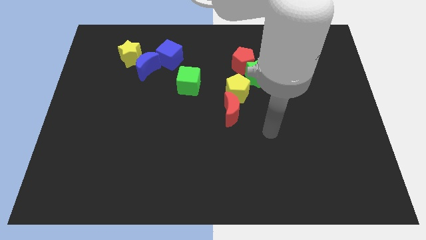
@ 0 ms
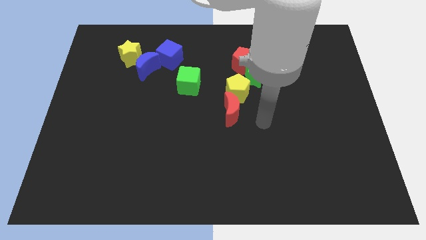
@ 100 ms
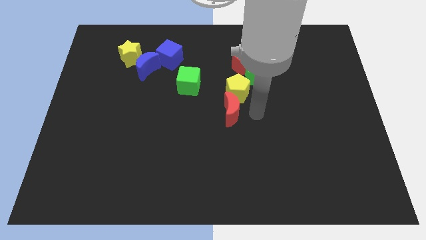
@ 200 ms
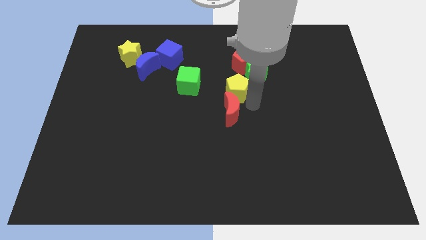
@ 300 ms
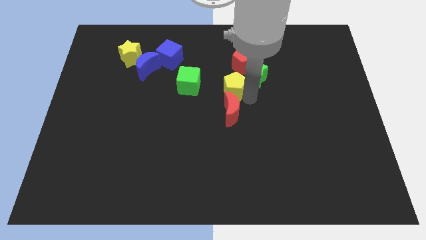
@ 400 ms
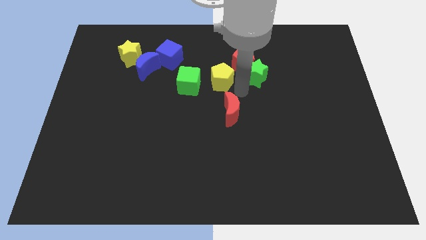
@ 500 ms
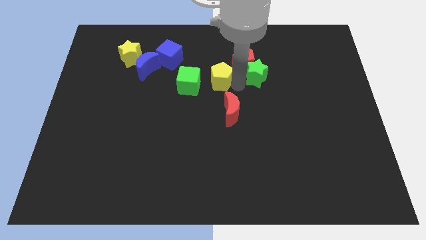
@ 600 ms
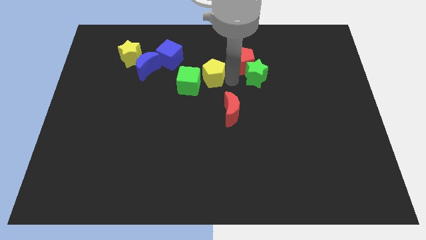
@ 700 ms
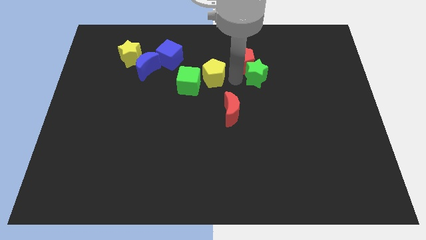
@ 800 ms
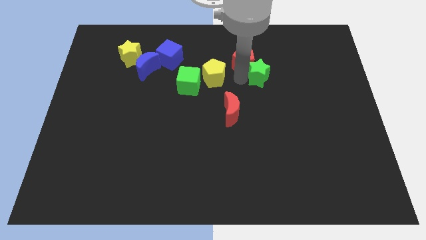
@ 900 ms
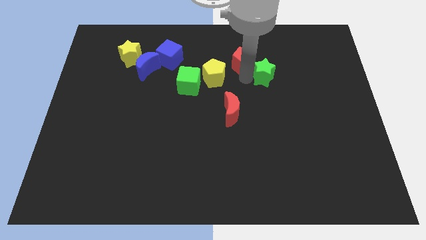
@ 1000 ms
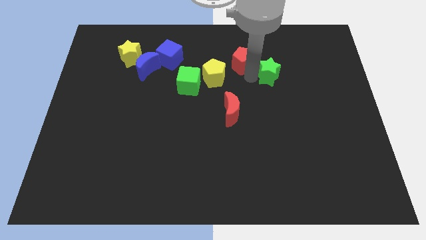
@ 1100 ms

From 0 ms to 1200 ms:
pull the green star apart from the red pentagon and yellow pentagon

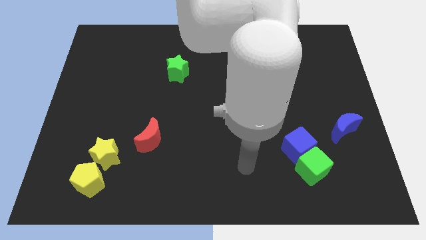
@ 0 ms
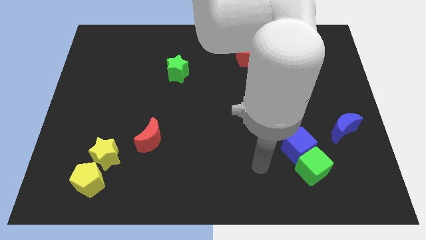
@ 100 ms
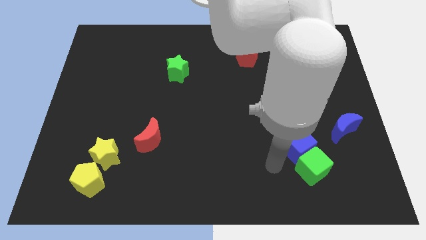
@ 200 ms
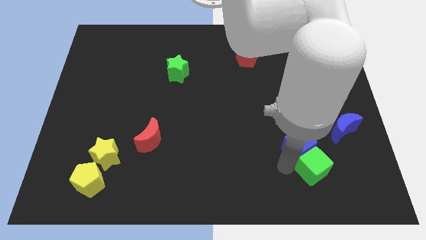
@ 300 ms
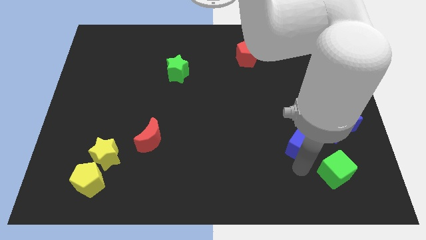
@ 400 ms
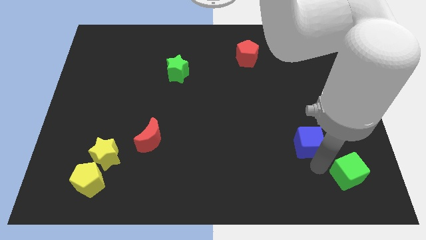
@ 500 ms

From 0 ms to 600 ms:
move the blue cube away from the green cube

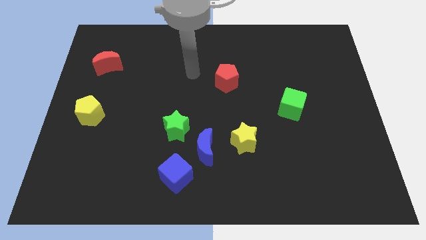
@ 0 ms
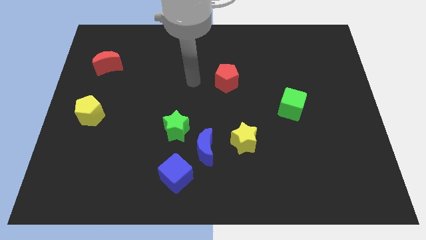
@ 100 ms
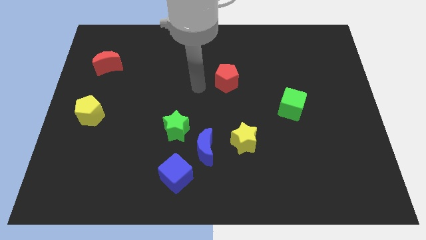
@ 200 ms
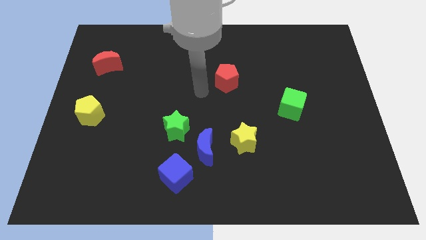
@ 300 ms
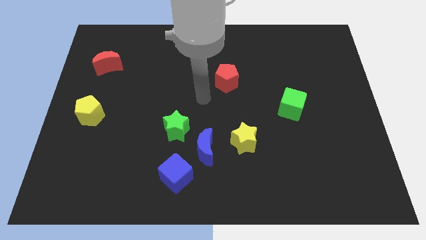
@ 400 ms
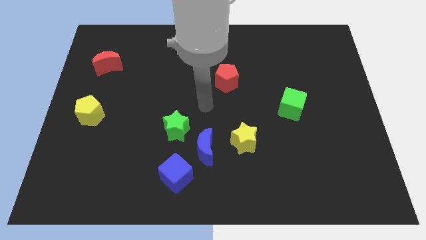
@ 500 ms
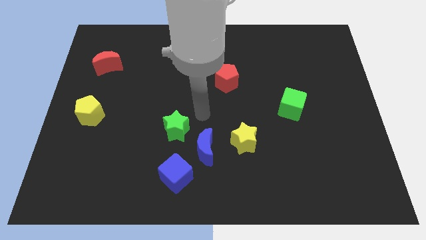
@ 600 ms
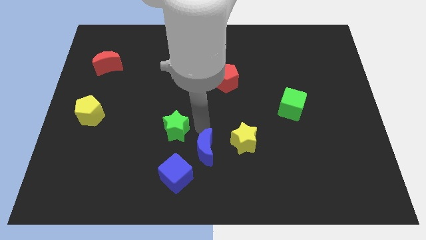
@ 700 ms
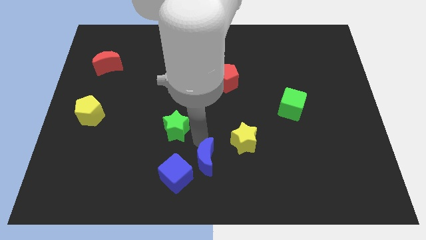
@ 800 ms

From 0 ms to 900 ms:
separate the green star from the blue moon

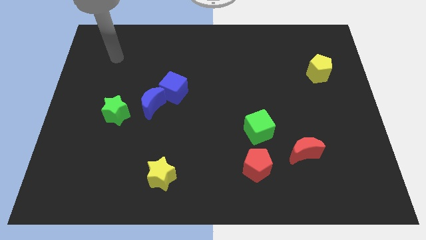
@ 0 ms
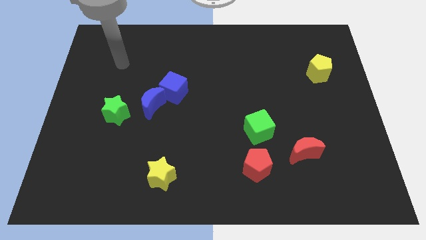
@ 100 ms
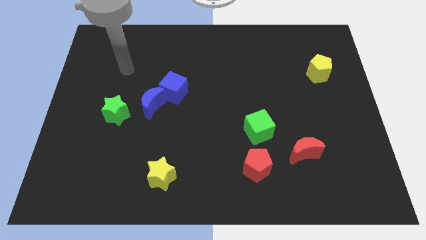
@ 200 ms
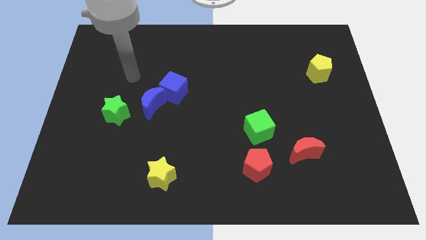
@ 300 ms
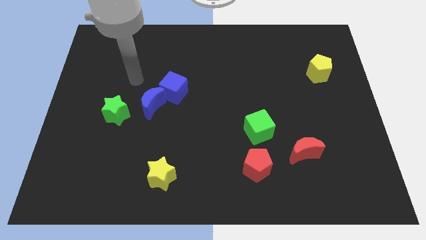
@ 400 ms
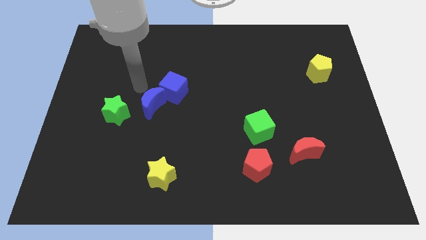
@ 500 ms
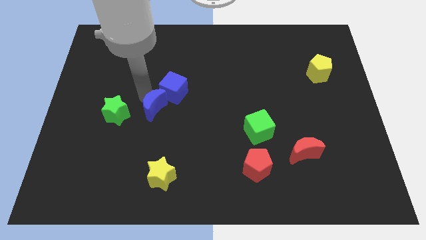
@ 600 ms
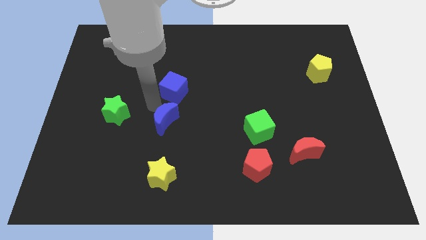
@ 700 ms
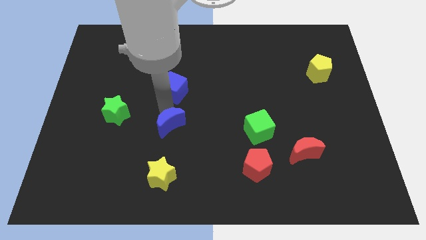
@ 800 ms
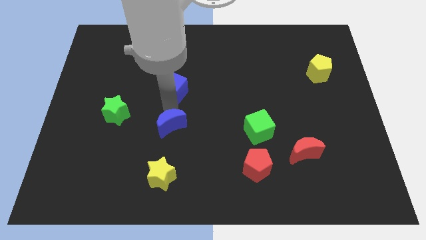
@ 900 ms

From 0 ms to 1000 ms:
move the blue cube away from the blue moon

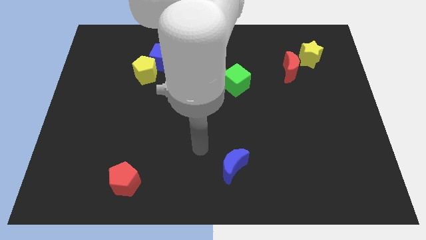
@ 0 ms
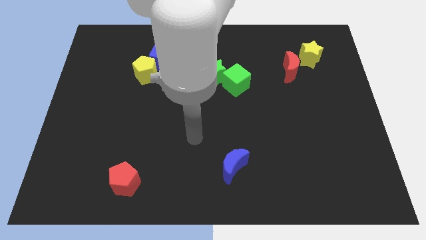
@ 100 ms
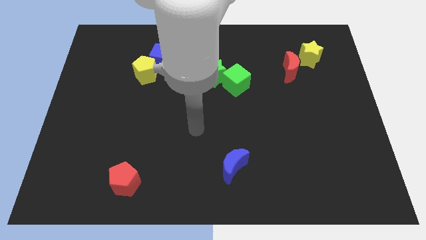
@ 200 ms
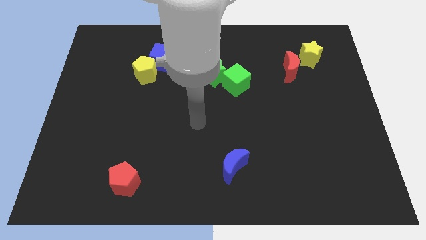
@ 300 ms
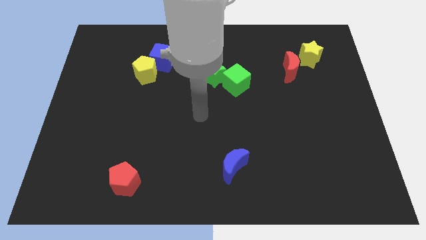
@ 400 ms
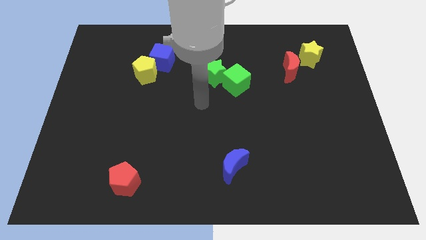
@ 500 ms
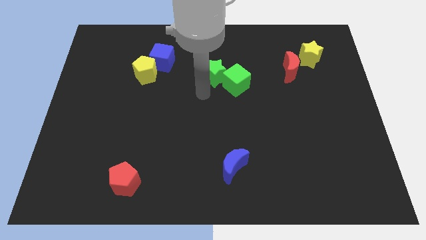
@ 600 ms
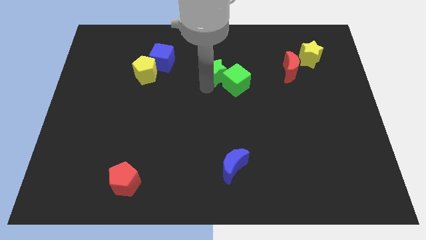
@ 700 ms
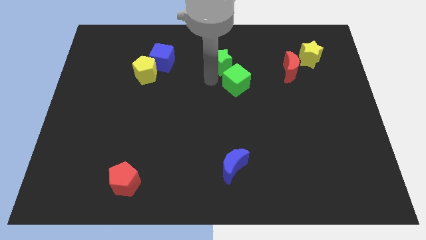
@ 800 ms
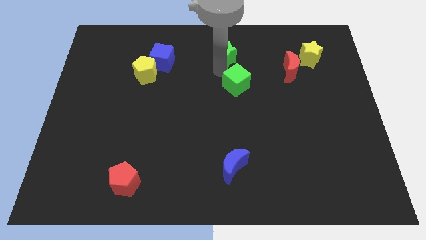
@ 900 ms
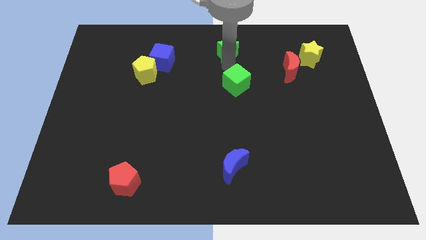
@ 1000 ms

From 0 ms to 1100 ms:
move the green cube away from the green star

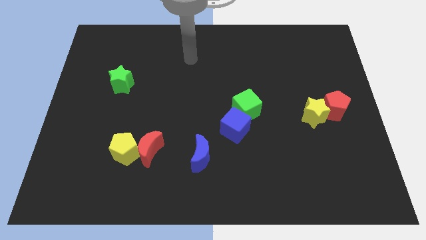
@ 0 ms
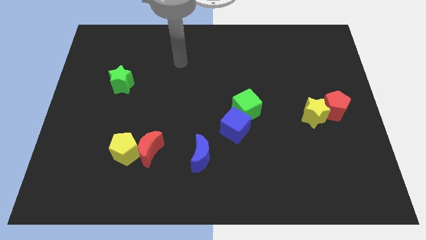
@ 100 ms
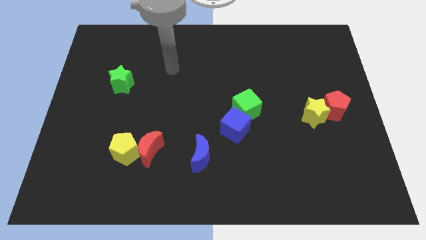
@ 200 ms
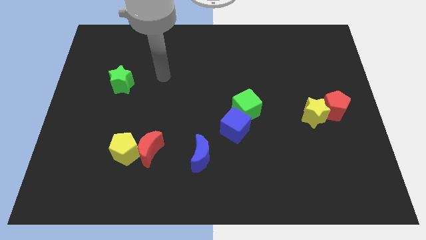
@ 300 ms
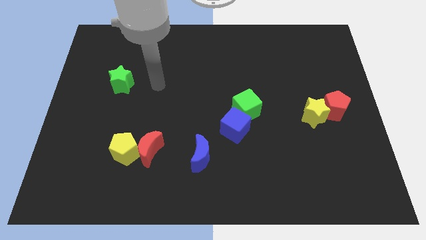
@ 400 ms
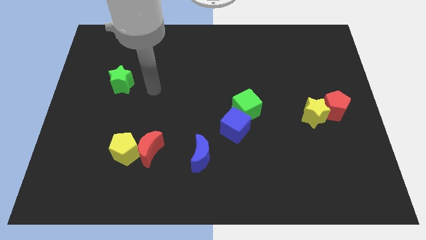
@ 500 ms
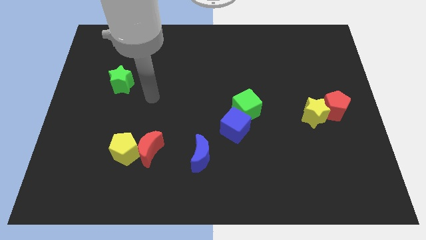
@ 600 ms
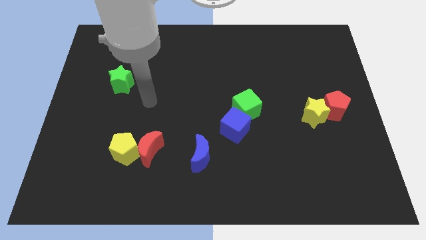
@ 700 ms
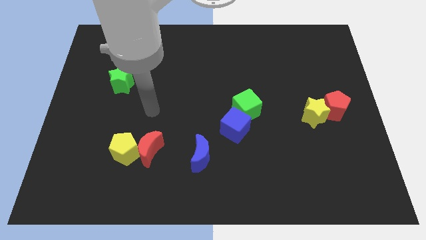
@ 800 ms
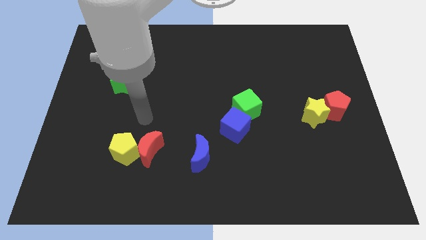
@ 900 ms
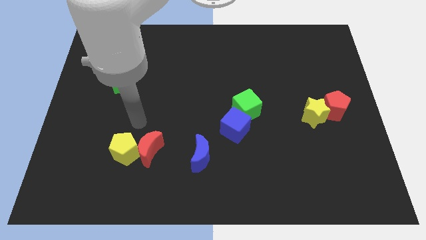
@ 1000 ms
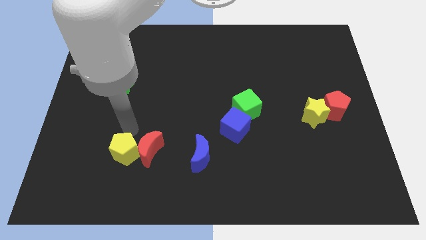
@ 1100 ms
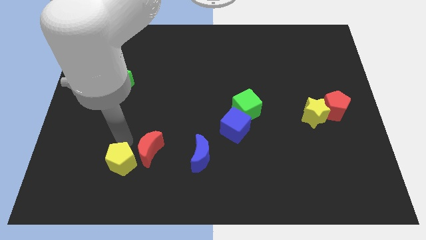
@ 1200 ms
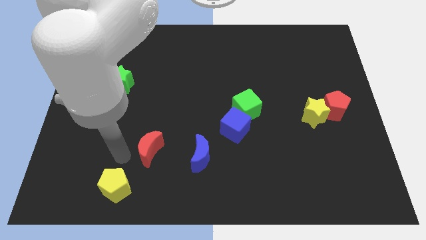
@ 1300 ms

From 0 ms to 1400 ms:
pull the red moon apart from the yellow pentagon

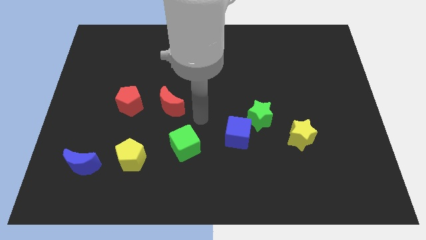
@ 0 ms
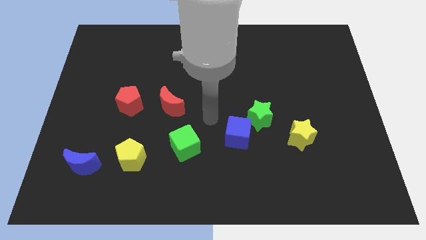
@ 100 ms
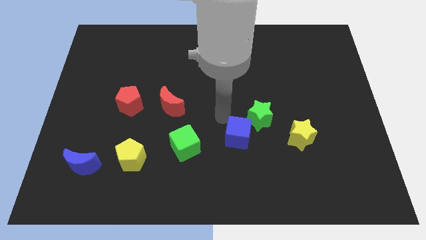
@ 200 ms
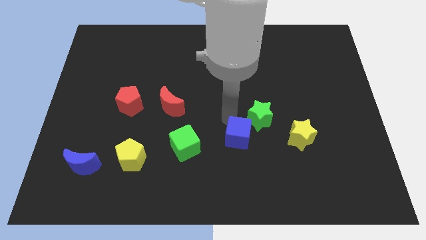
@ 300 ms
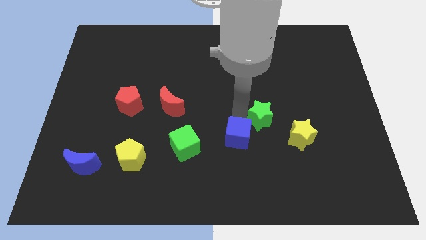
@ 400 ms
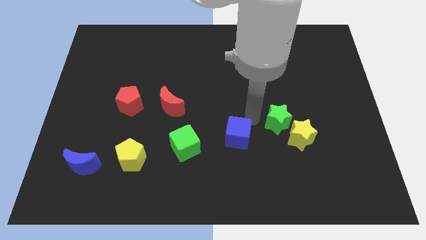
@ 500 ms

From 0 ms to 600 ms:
separate the blue cube from the green star

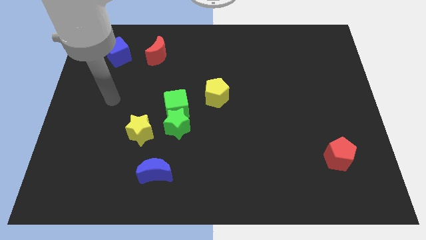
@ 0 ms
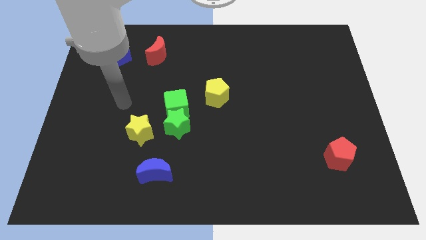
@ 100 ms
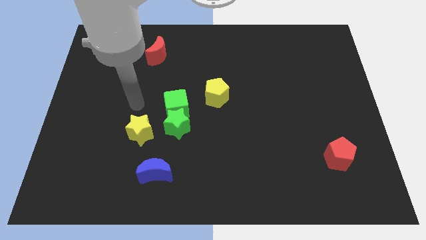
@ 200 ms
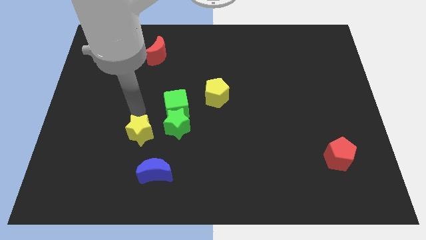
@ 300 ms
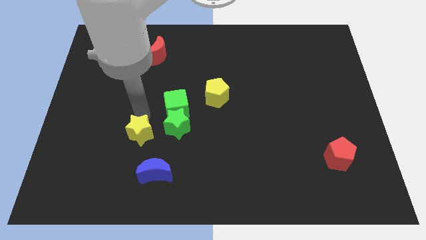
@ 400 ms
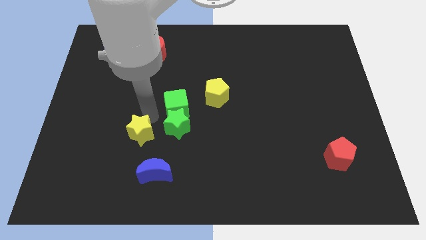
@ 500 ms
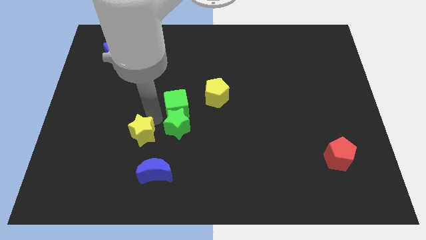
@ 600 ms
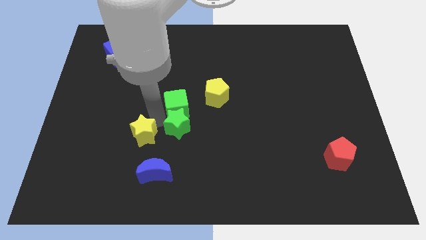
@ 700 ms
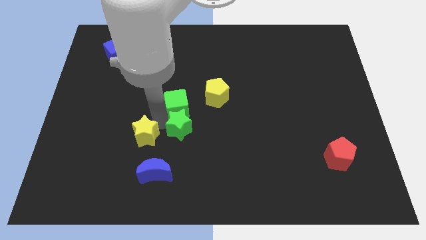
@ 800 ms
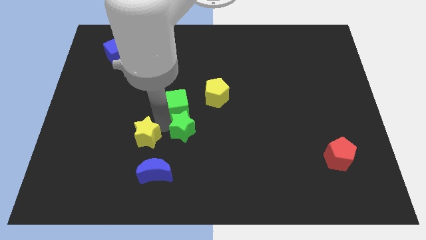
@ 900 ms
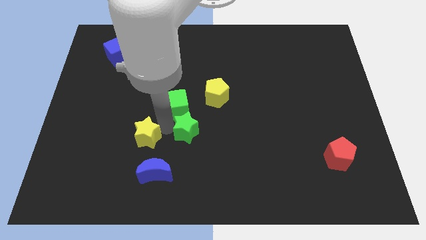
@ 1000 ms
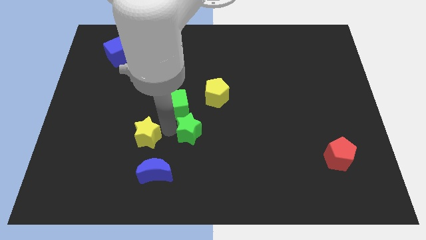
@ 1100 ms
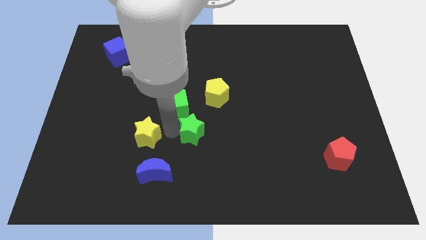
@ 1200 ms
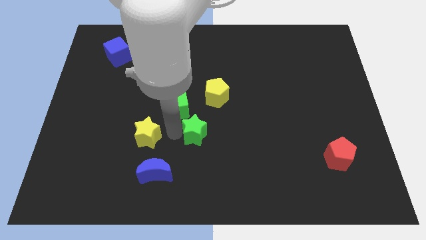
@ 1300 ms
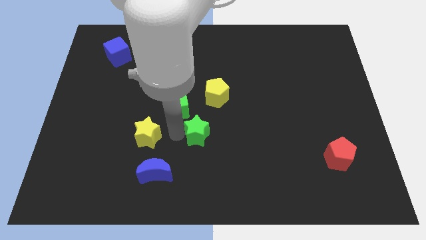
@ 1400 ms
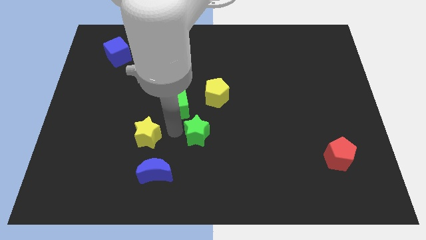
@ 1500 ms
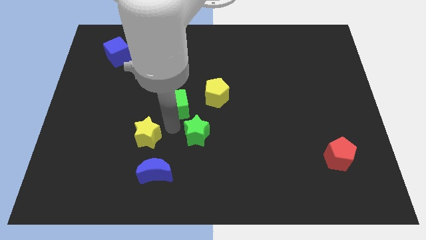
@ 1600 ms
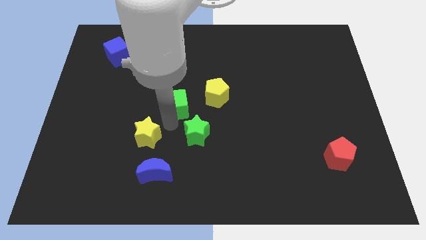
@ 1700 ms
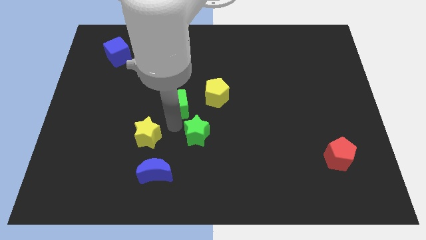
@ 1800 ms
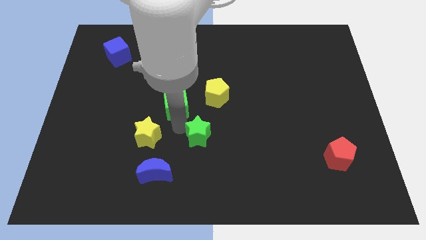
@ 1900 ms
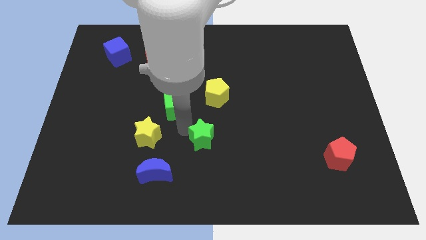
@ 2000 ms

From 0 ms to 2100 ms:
move the green star away from the green cube and yellow star

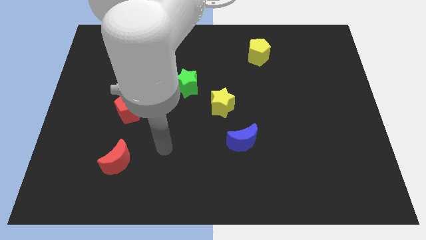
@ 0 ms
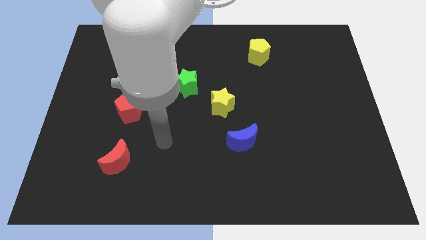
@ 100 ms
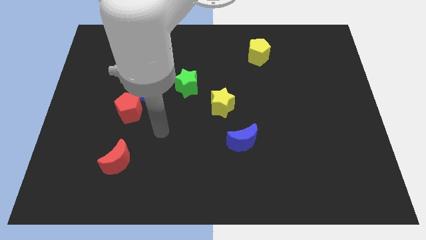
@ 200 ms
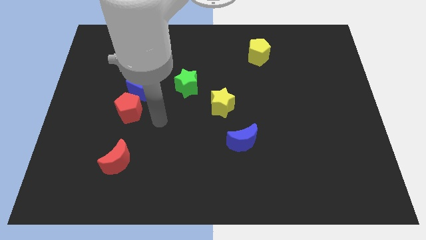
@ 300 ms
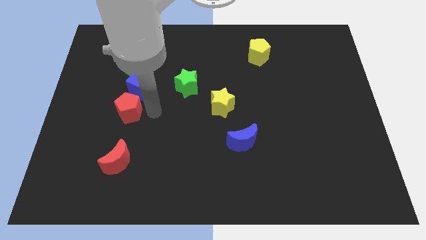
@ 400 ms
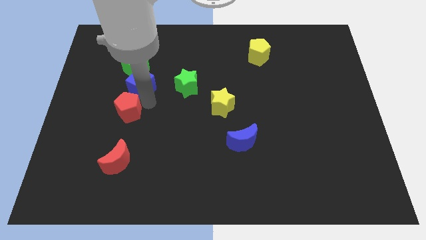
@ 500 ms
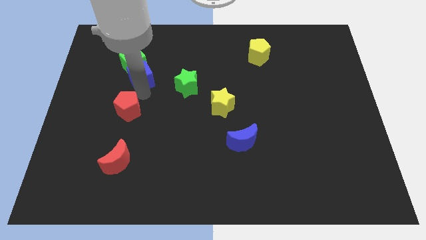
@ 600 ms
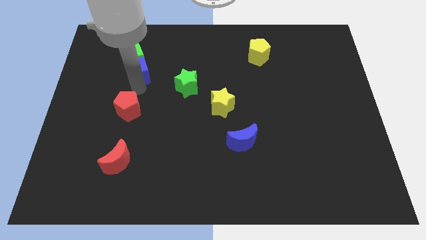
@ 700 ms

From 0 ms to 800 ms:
pull the red pentagon apart from the blue cube
